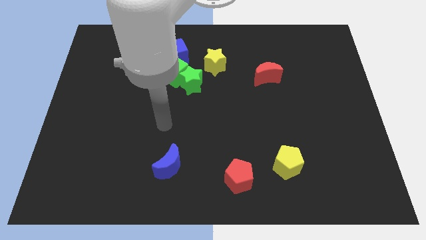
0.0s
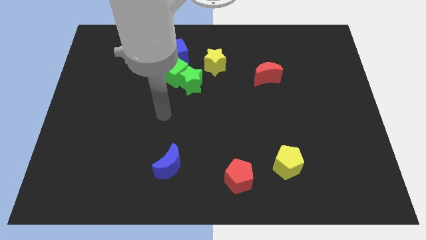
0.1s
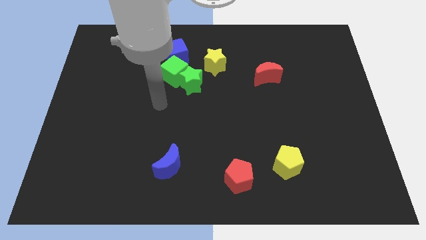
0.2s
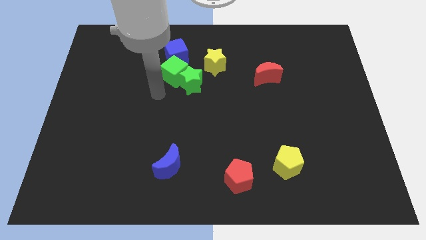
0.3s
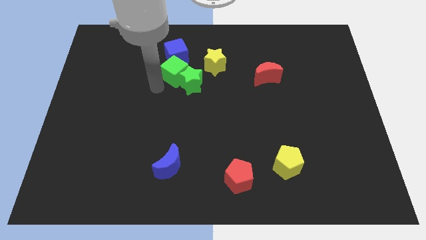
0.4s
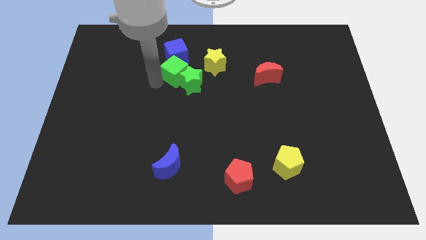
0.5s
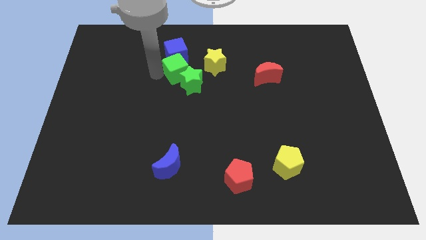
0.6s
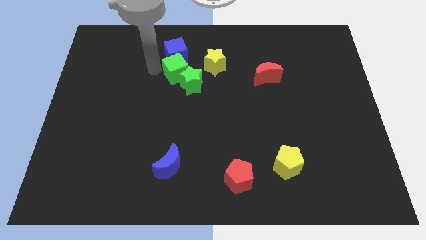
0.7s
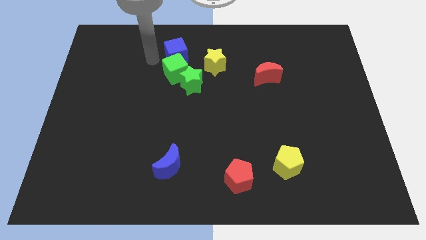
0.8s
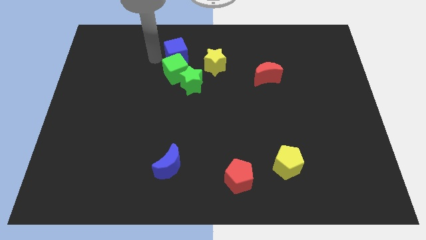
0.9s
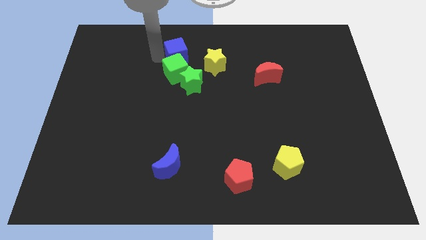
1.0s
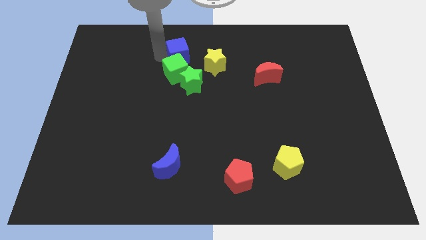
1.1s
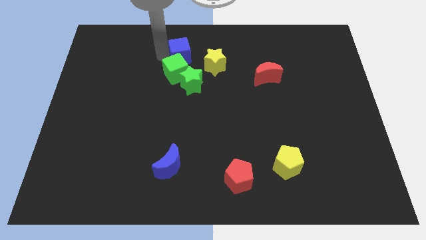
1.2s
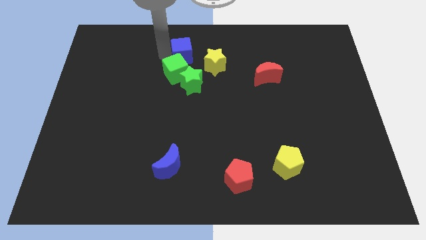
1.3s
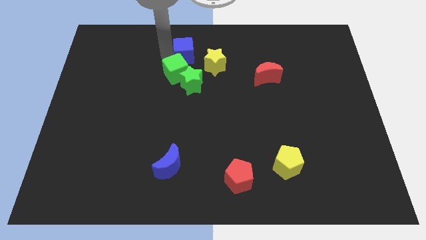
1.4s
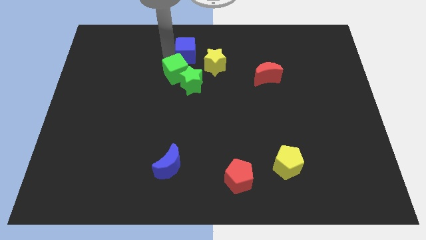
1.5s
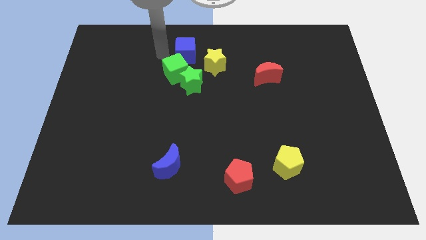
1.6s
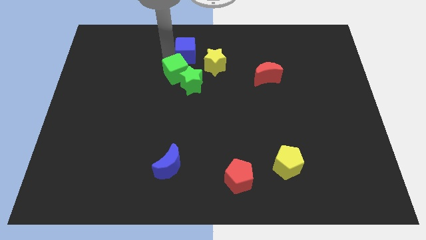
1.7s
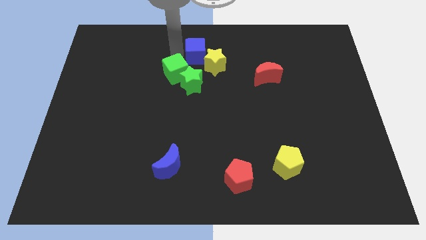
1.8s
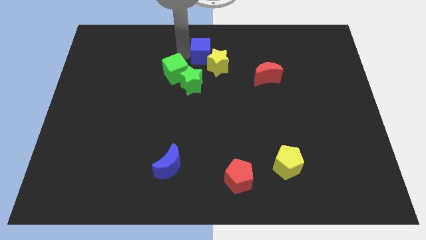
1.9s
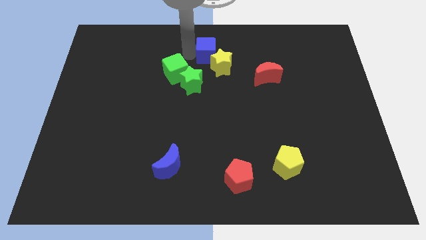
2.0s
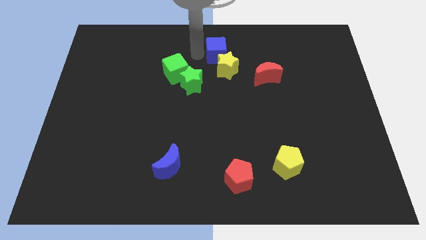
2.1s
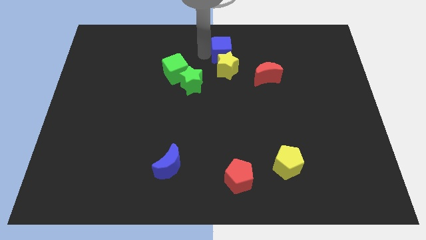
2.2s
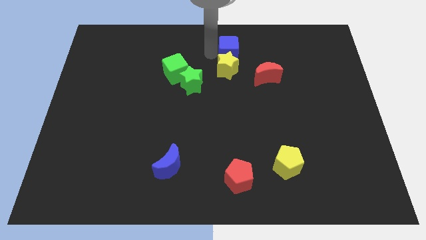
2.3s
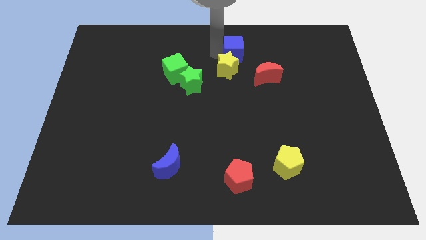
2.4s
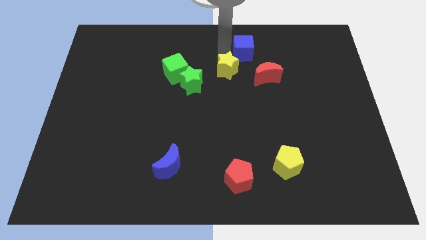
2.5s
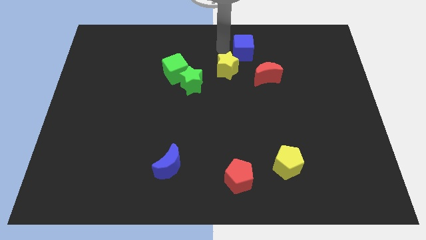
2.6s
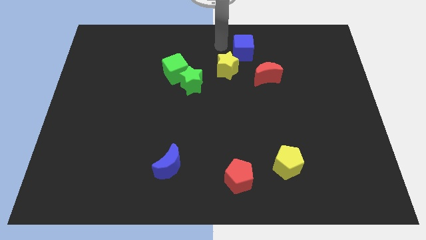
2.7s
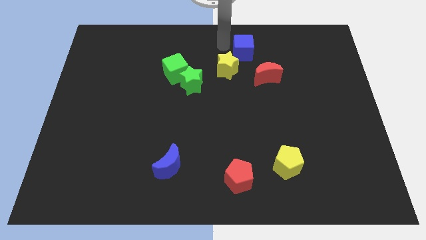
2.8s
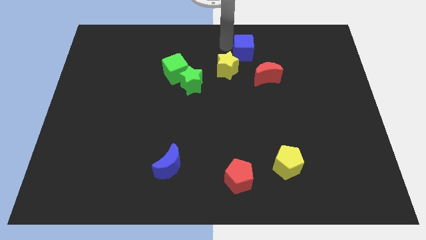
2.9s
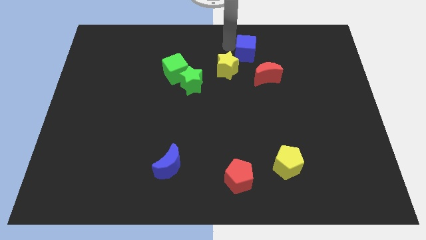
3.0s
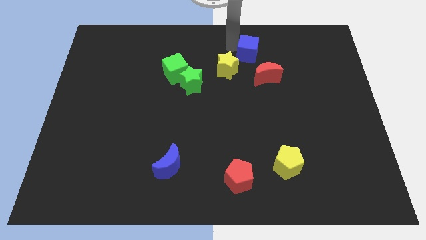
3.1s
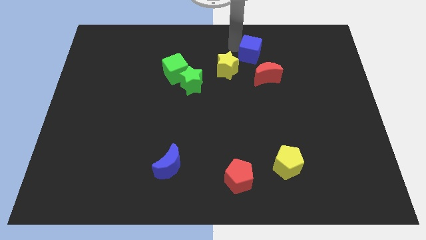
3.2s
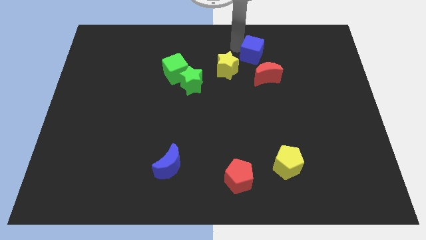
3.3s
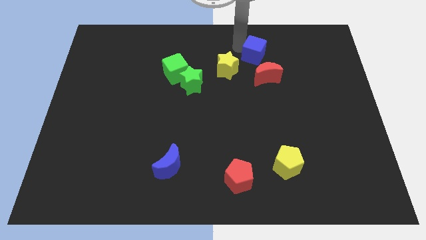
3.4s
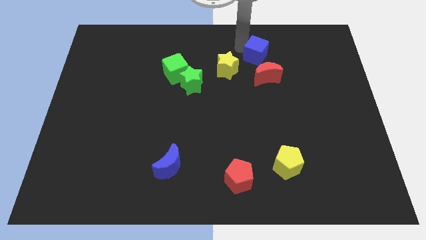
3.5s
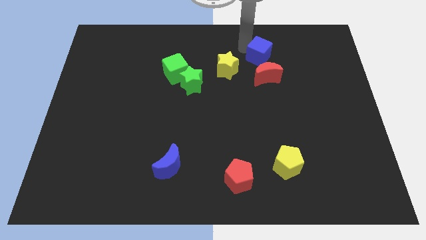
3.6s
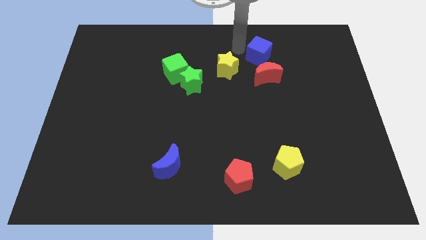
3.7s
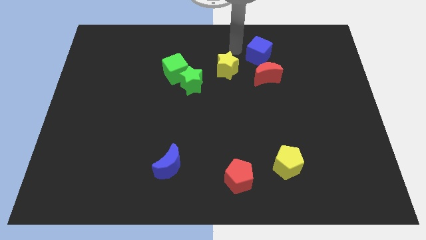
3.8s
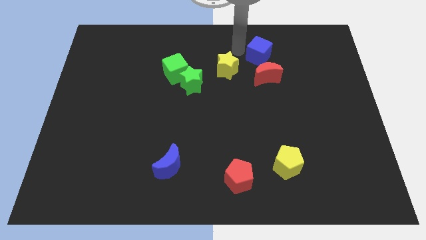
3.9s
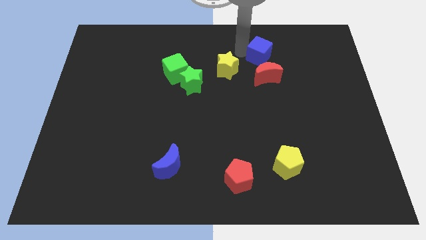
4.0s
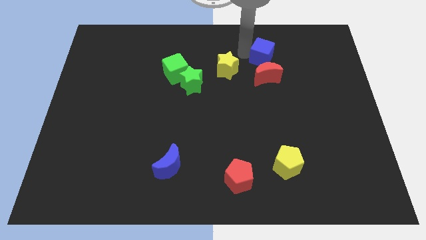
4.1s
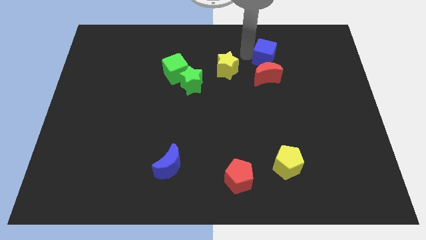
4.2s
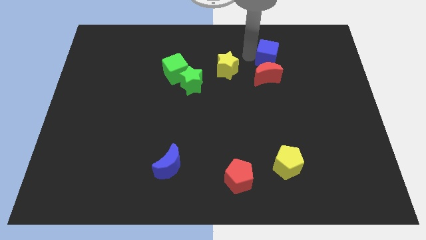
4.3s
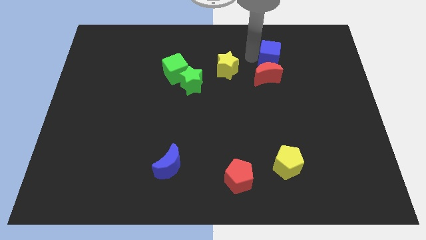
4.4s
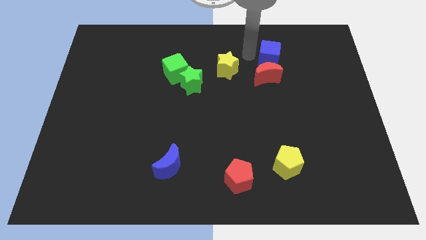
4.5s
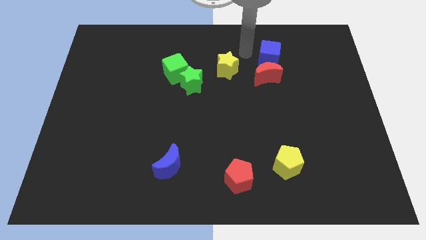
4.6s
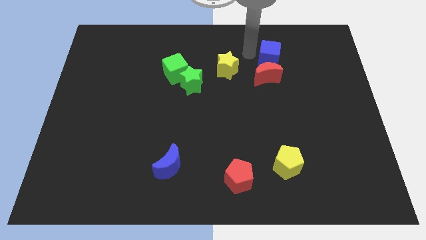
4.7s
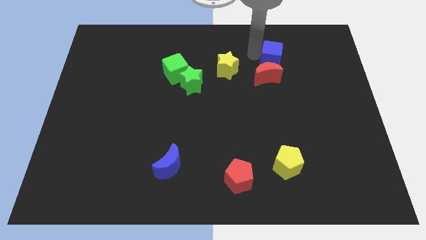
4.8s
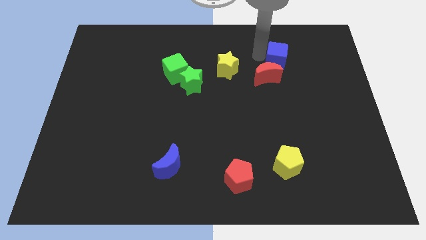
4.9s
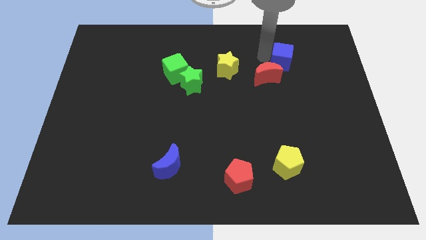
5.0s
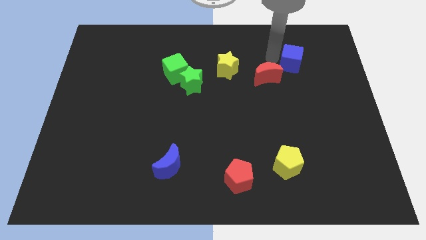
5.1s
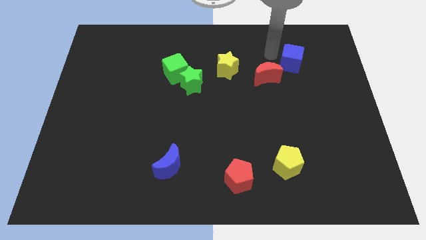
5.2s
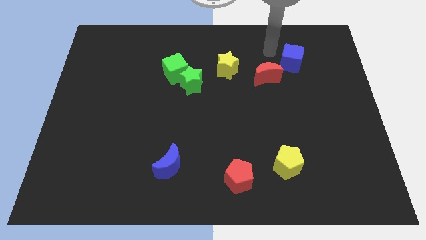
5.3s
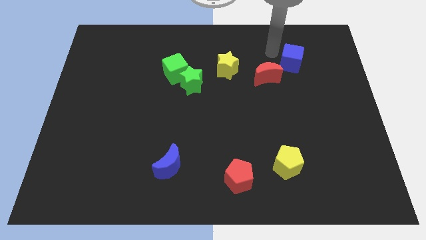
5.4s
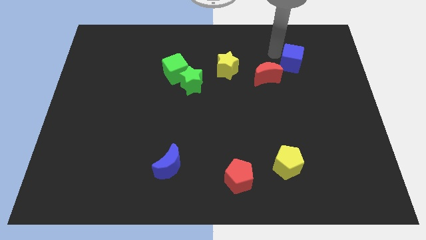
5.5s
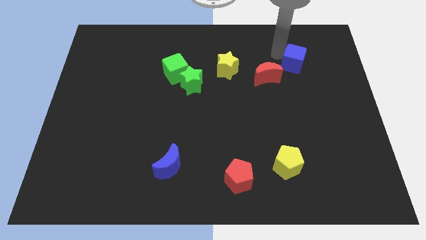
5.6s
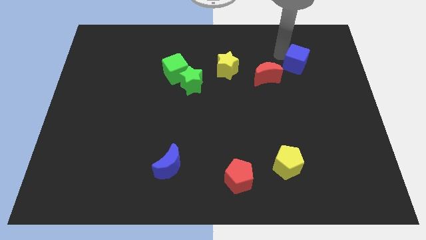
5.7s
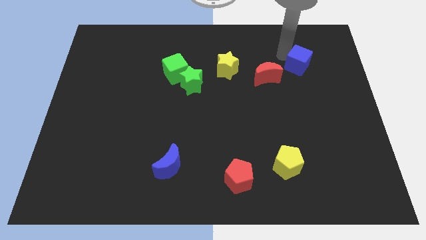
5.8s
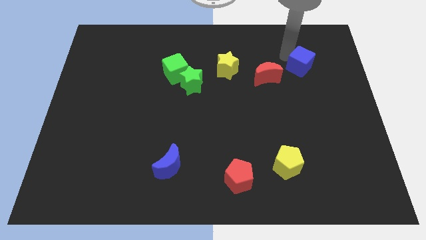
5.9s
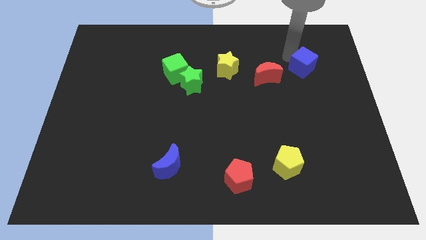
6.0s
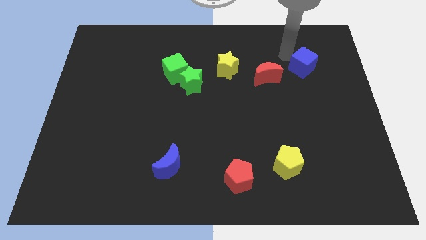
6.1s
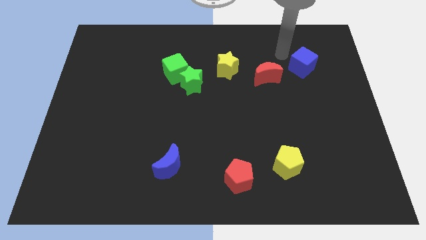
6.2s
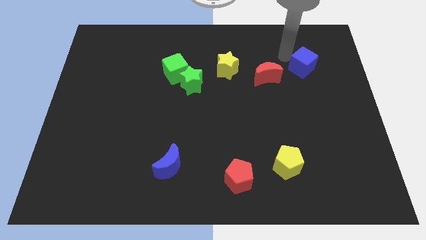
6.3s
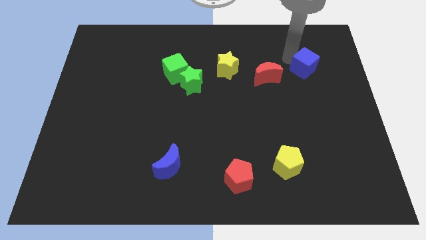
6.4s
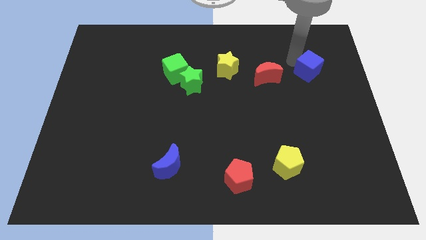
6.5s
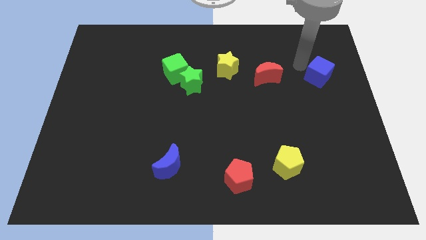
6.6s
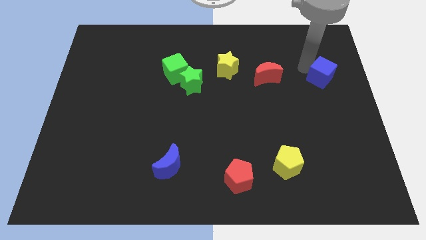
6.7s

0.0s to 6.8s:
push the blue cube to the center right

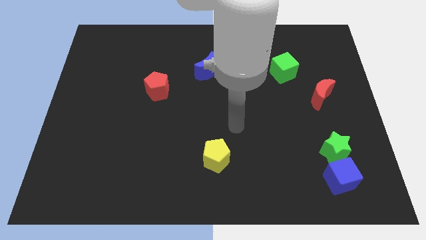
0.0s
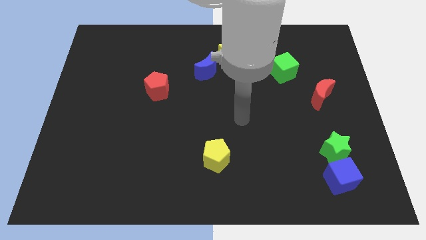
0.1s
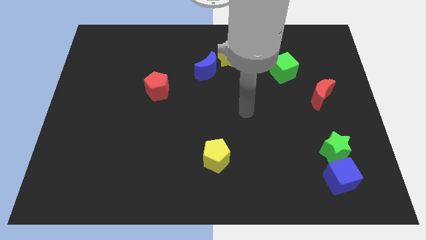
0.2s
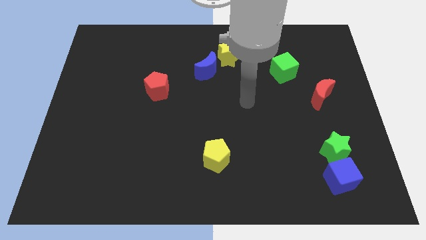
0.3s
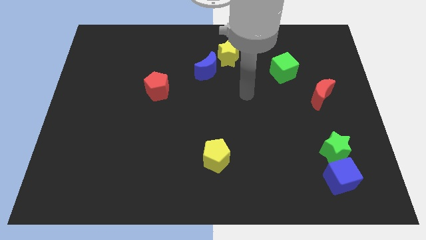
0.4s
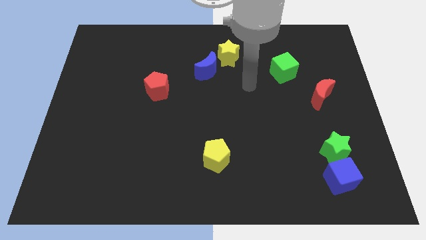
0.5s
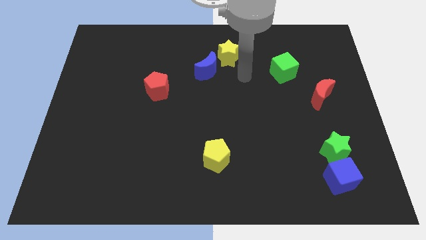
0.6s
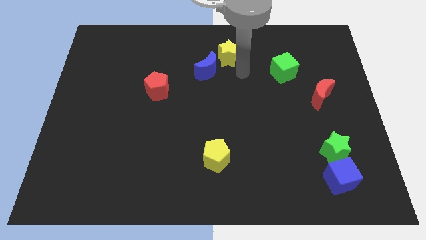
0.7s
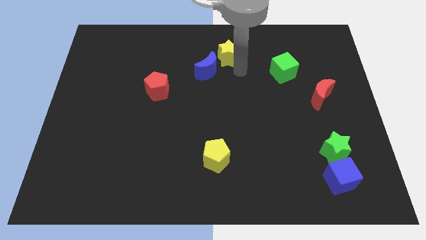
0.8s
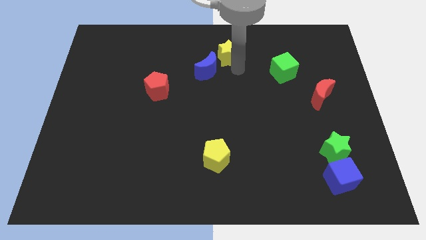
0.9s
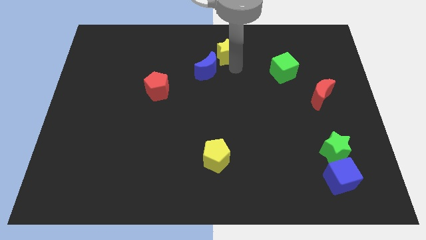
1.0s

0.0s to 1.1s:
push the yellow star to the towards your base
